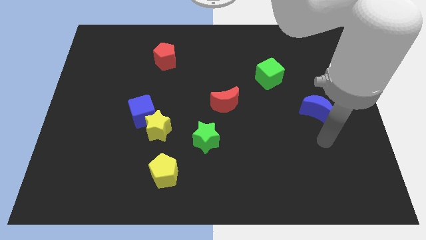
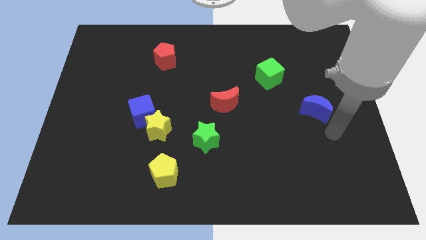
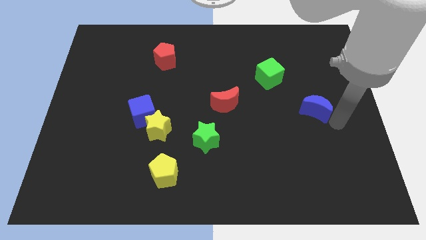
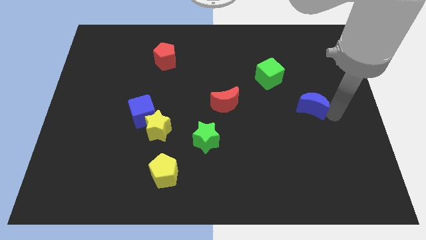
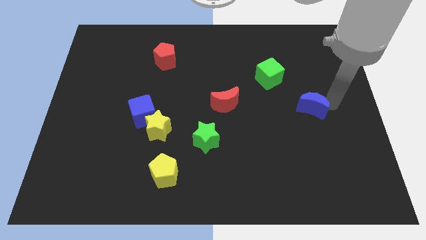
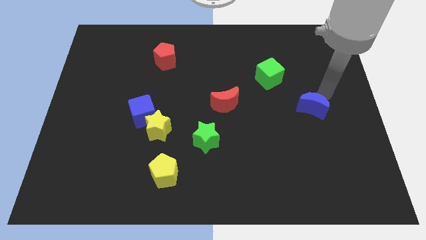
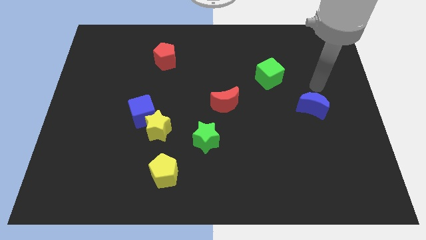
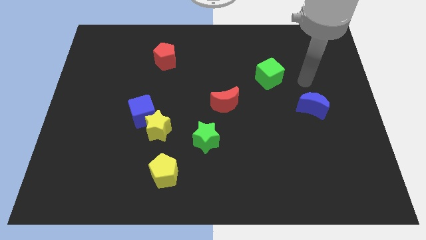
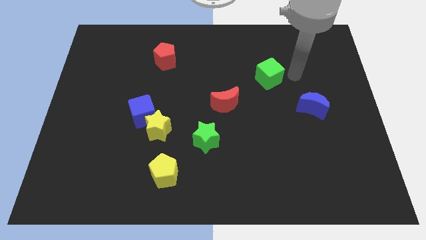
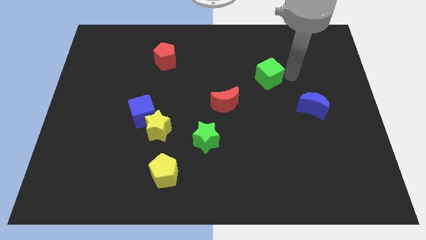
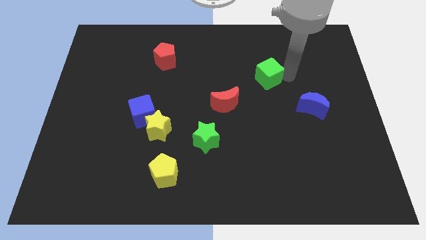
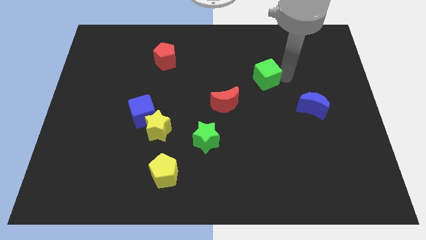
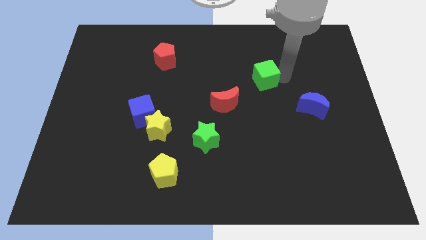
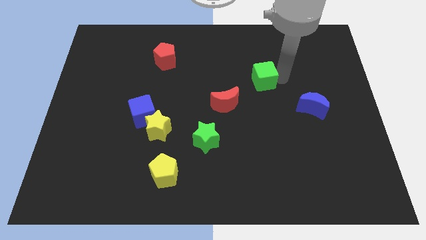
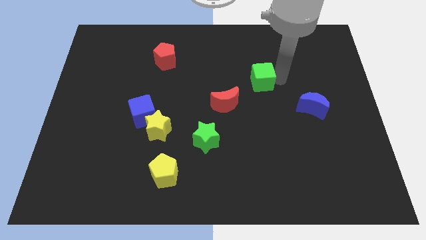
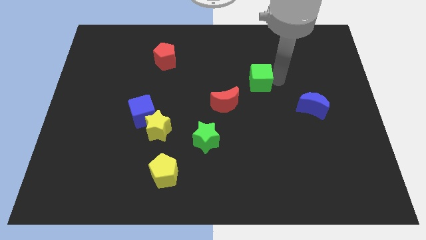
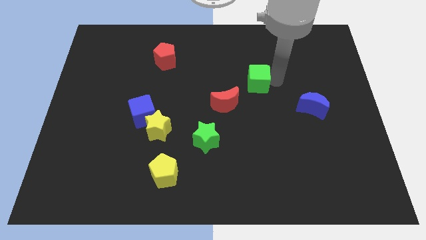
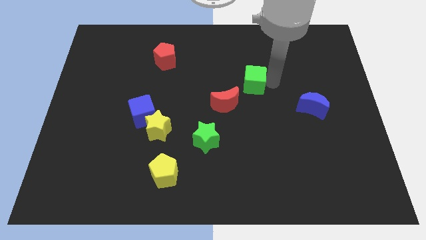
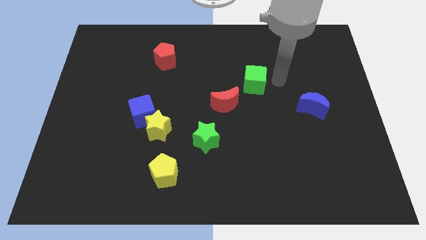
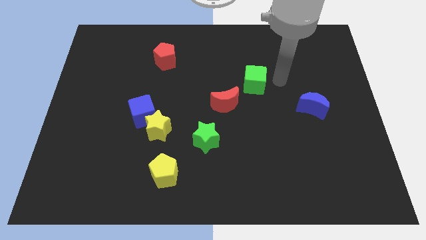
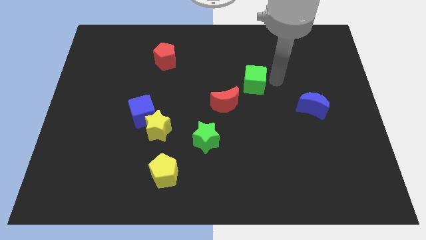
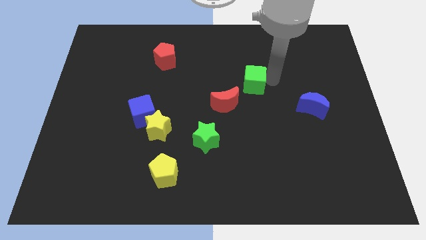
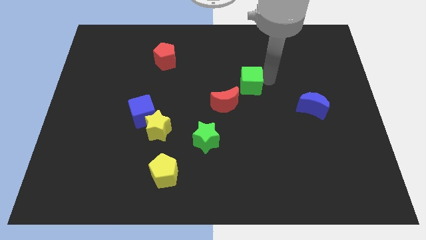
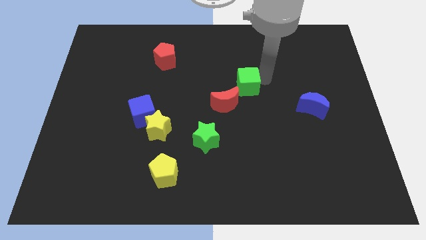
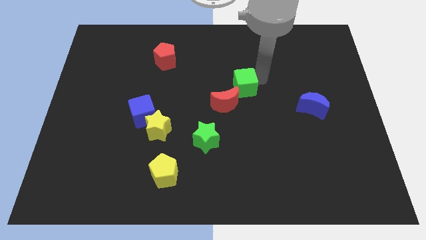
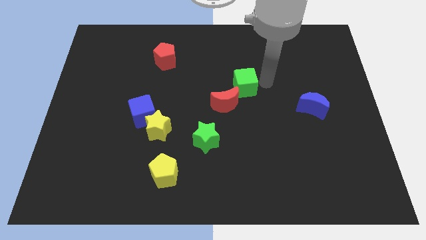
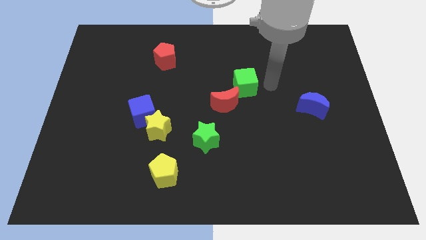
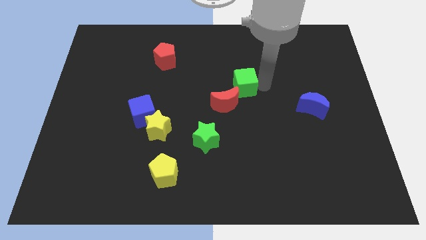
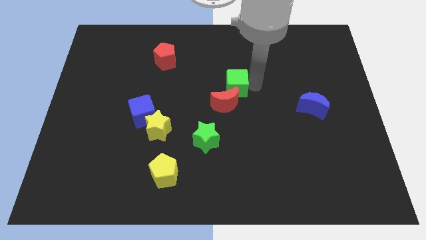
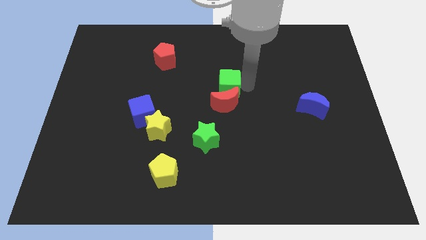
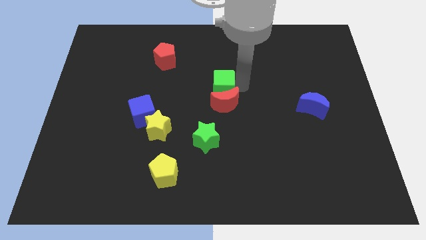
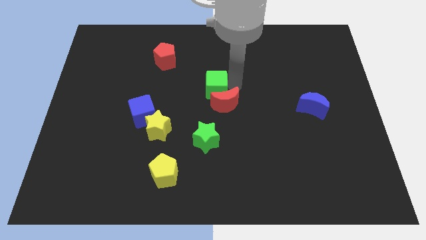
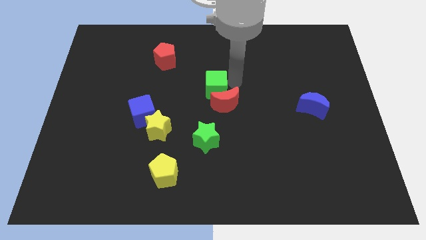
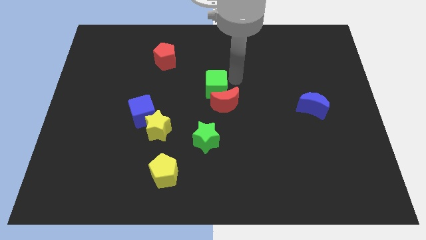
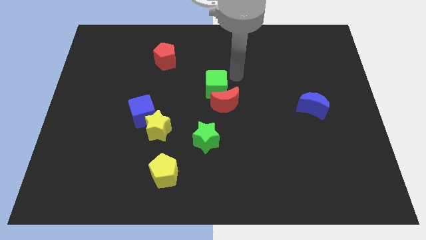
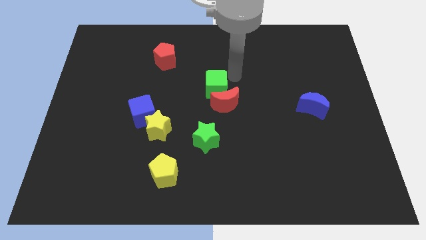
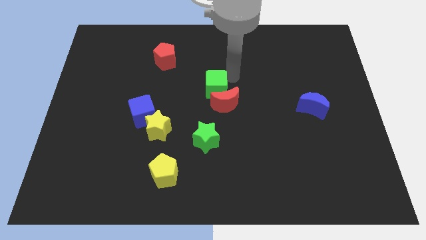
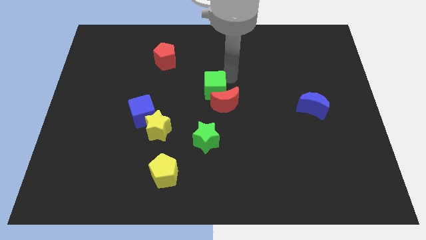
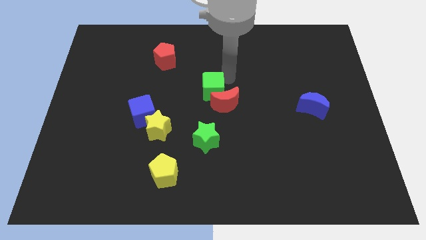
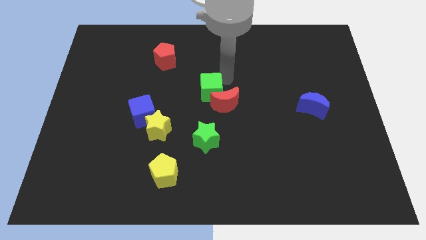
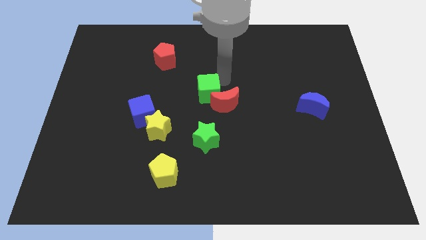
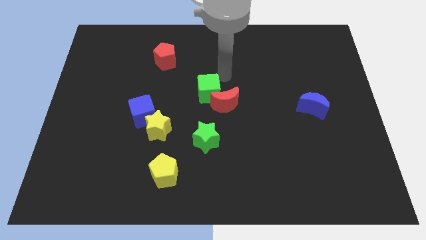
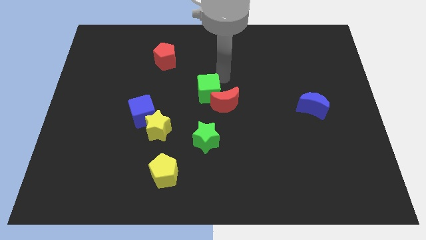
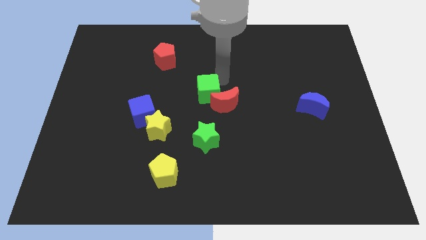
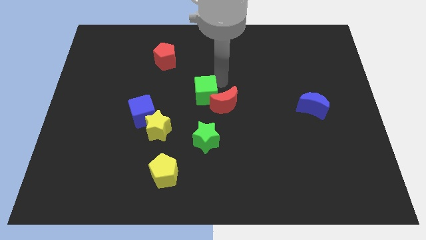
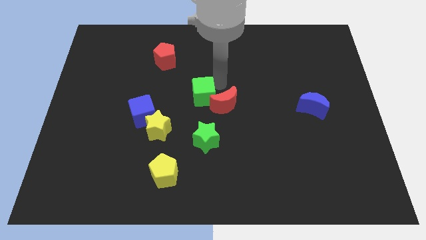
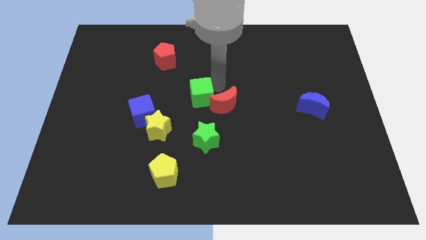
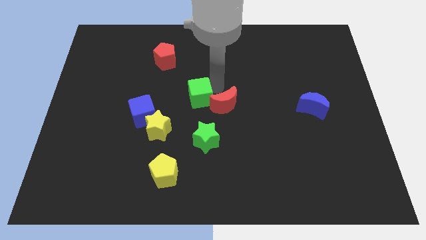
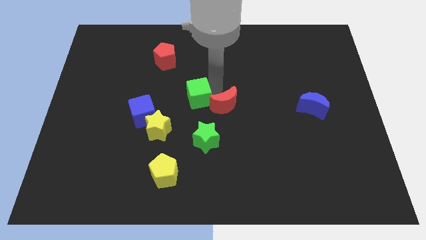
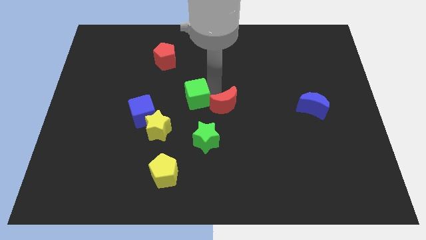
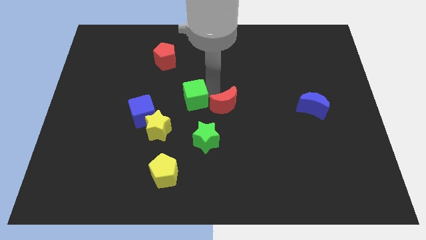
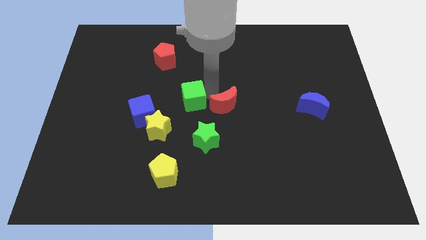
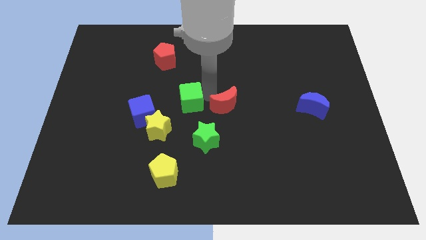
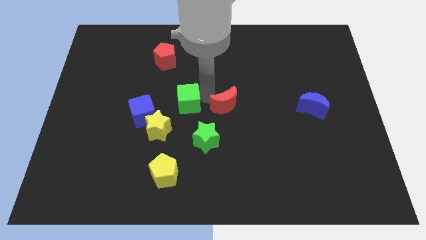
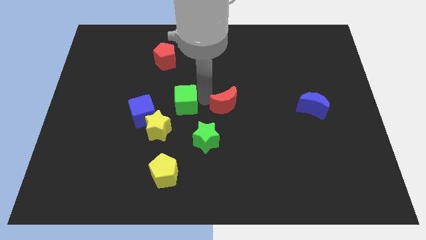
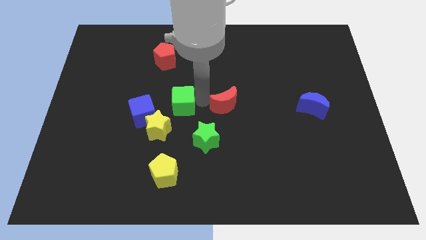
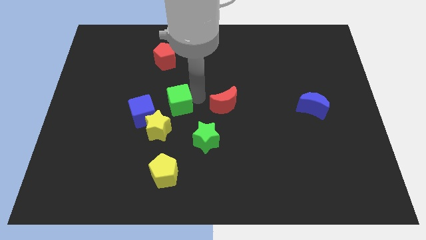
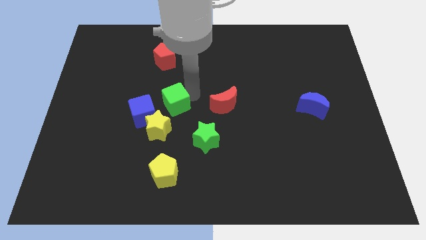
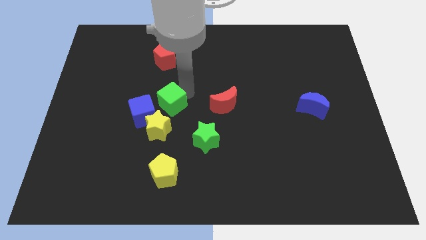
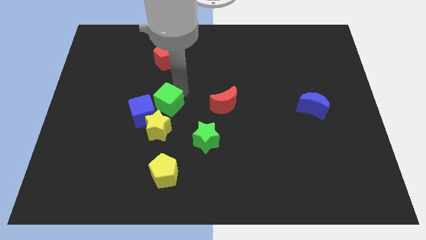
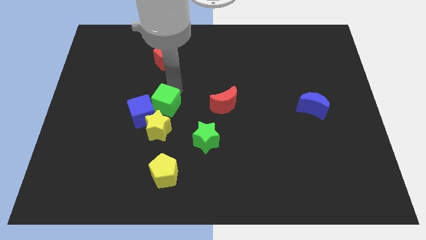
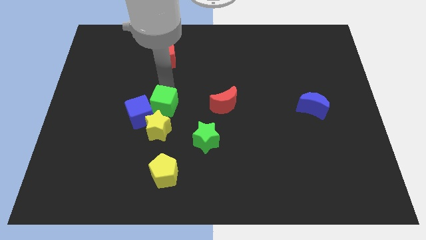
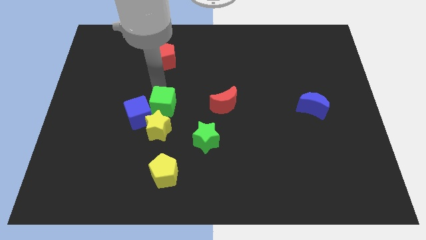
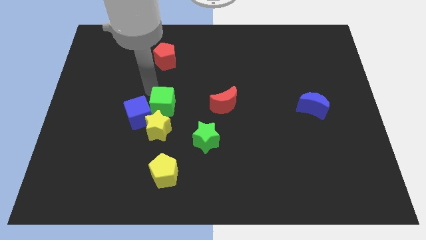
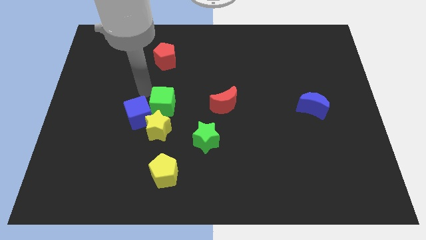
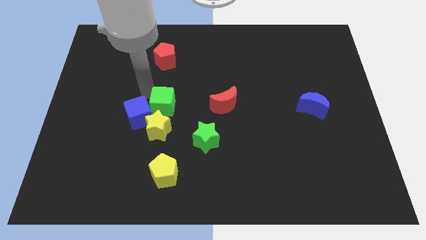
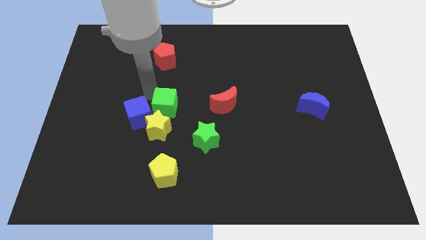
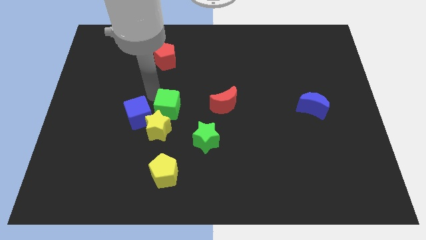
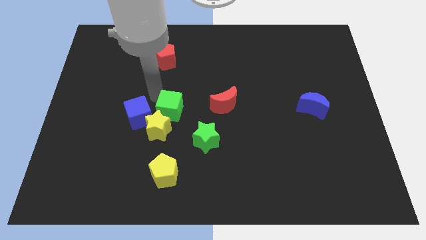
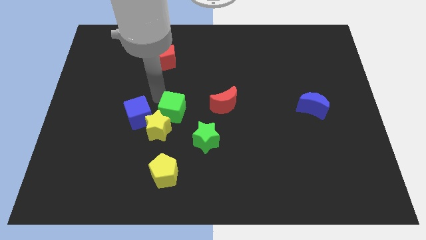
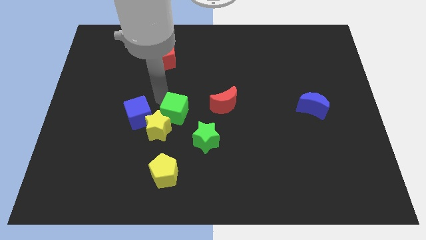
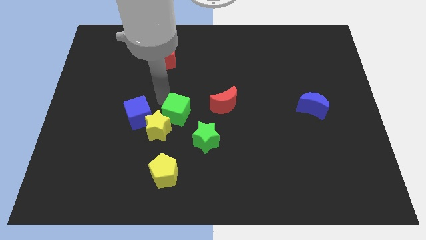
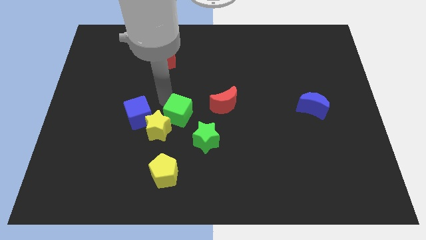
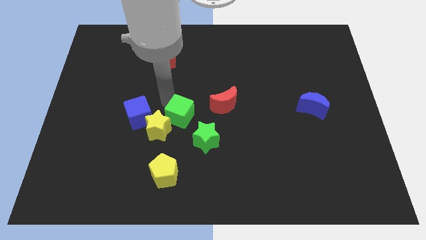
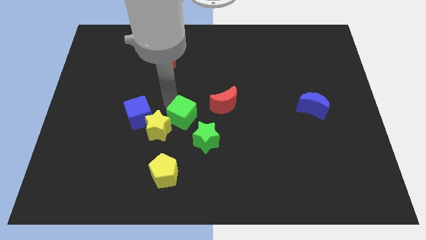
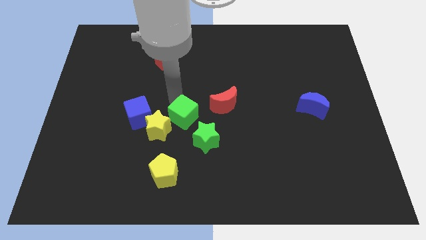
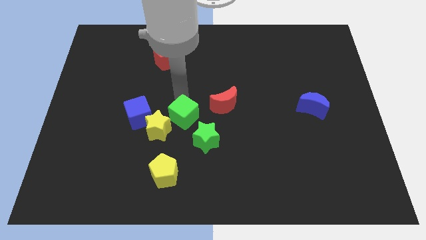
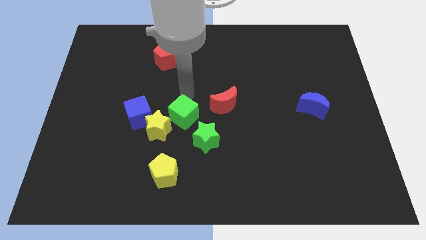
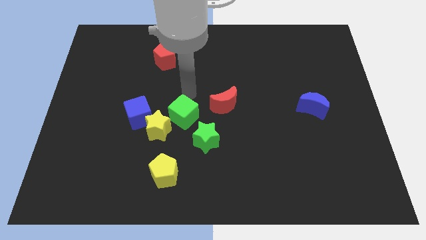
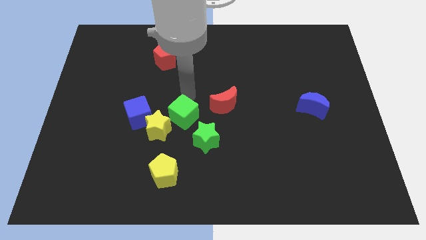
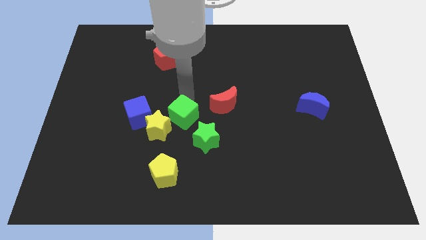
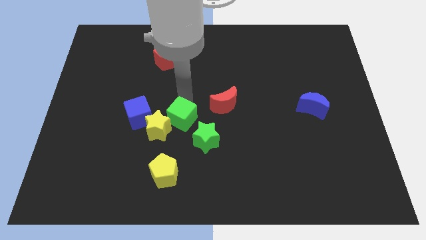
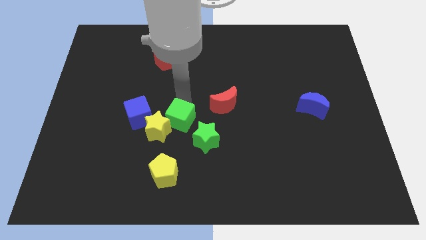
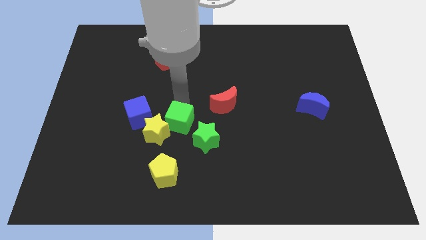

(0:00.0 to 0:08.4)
slide the green cube to the left of the green star

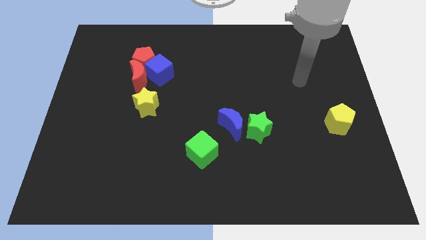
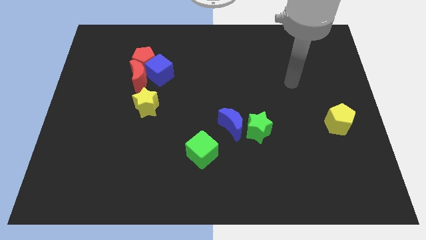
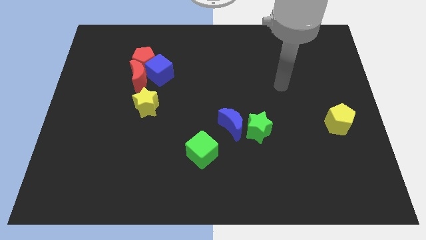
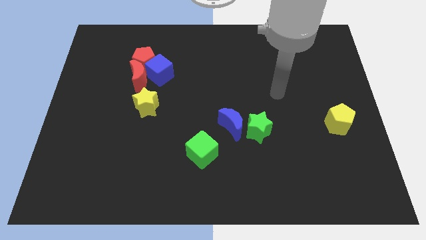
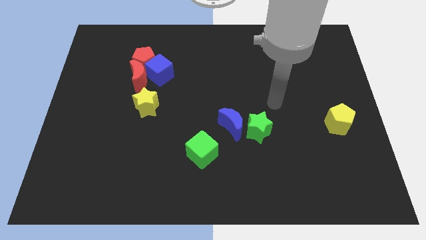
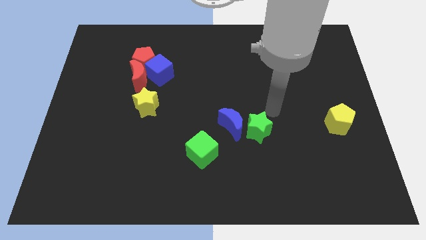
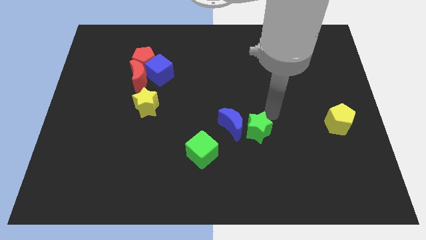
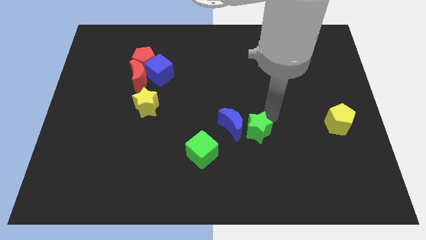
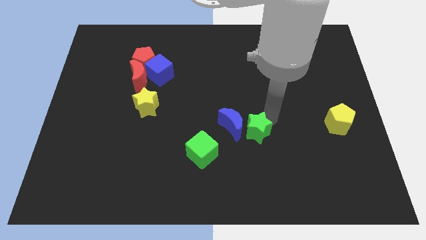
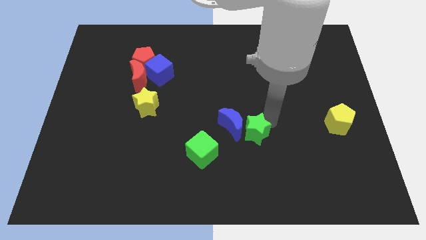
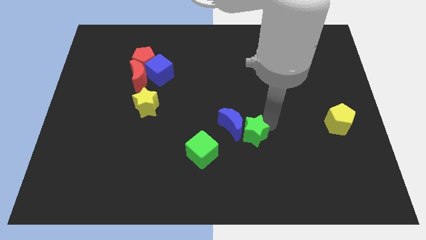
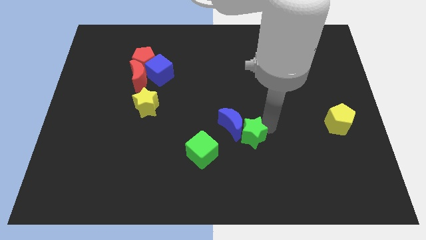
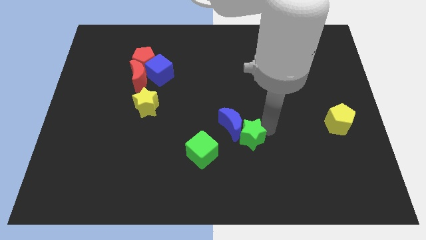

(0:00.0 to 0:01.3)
push the green star below the blue moon
